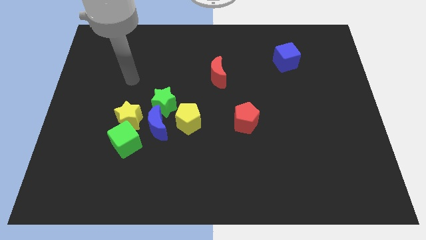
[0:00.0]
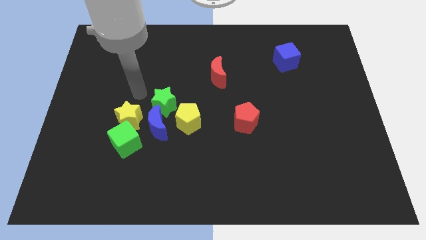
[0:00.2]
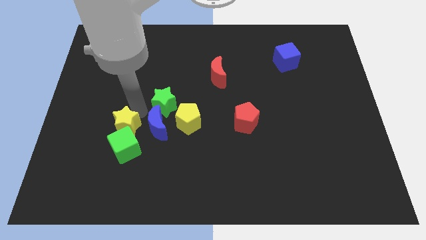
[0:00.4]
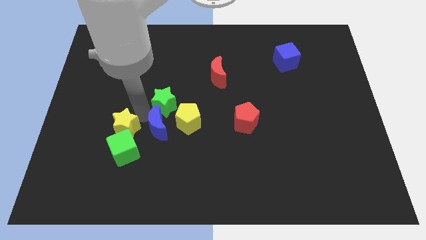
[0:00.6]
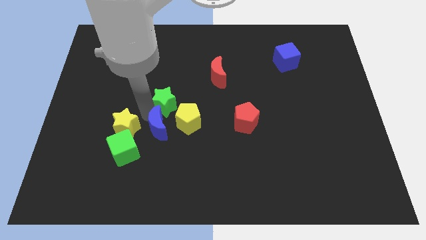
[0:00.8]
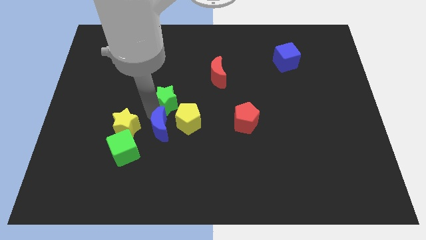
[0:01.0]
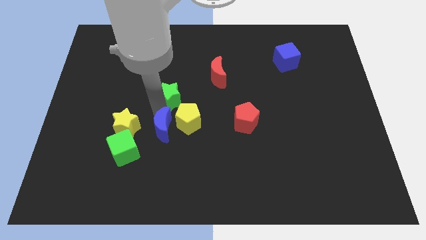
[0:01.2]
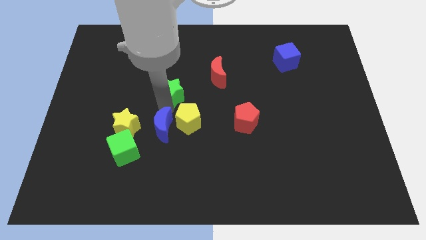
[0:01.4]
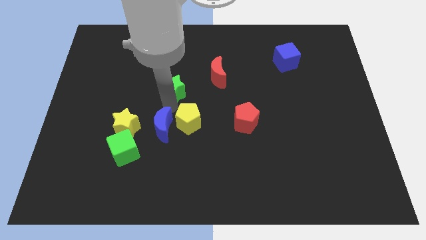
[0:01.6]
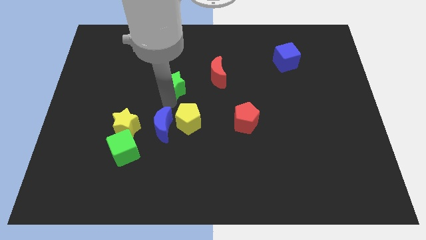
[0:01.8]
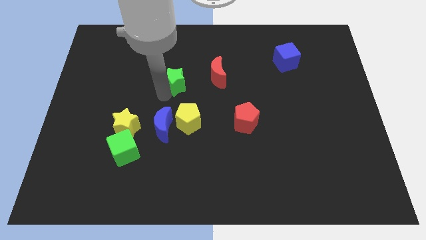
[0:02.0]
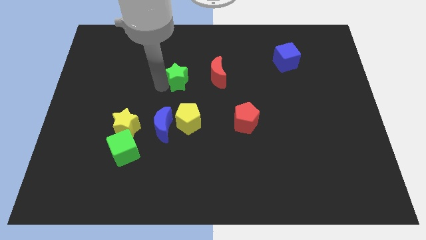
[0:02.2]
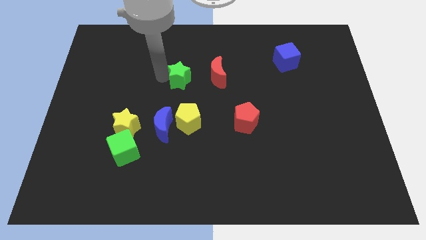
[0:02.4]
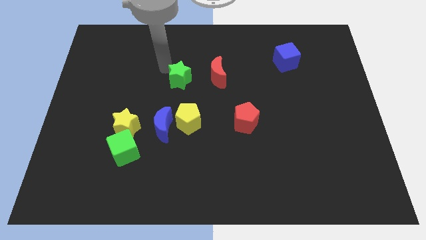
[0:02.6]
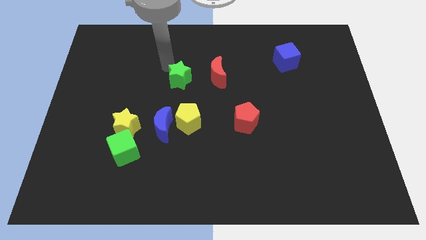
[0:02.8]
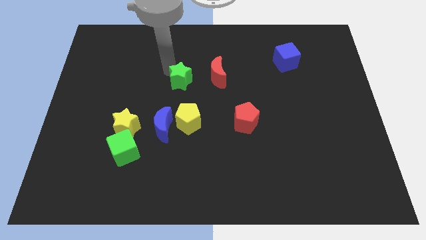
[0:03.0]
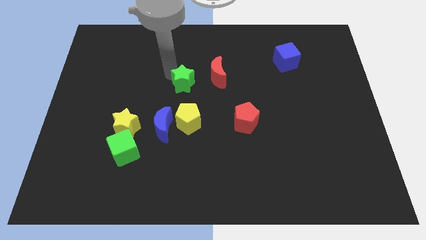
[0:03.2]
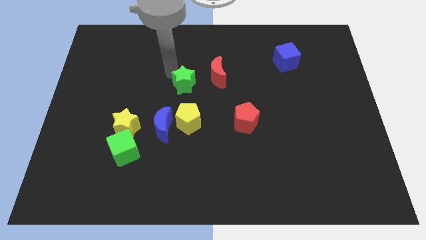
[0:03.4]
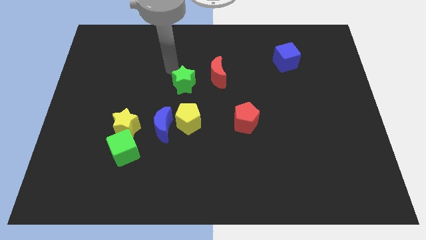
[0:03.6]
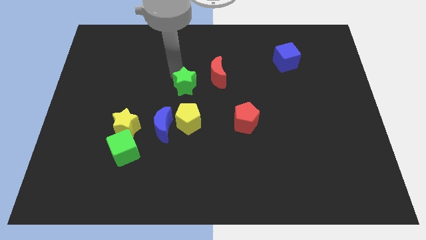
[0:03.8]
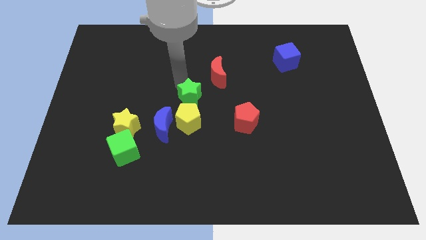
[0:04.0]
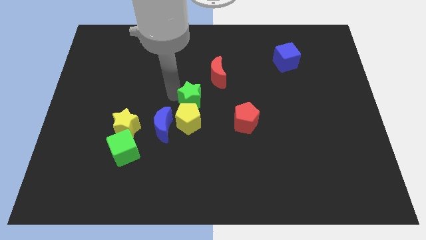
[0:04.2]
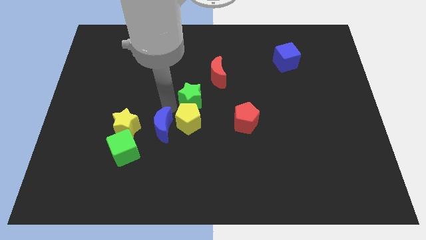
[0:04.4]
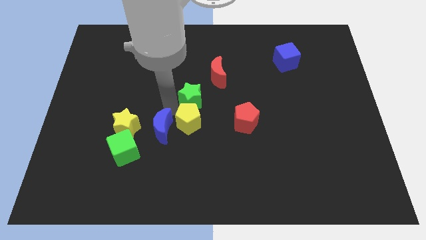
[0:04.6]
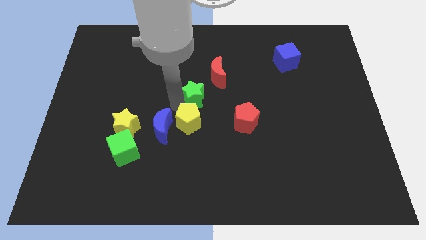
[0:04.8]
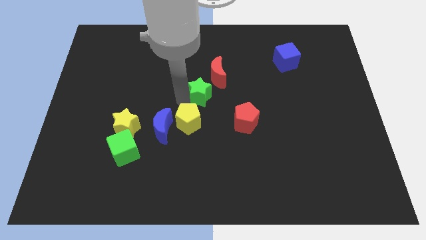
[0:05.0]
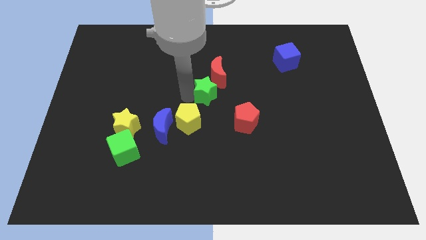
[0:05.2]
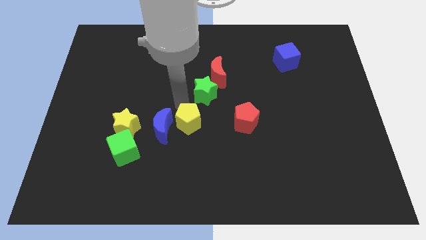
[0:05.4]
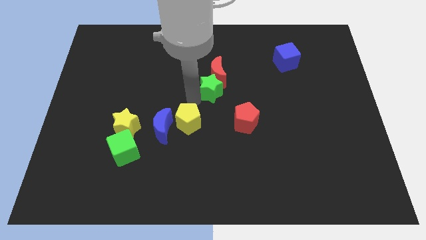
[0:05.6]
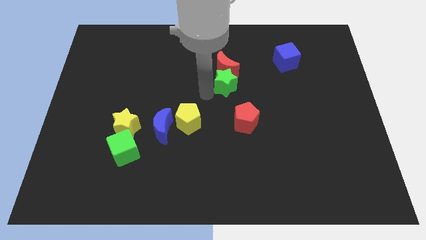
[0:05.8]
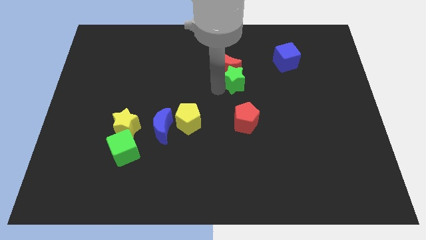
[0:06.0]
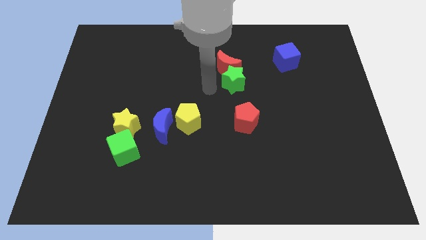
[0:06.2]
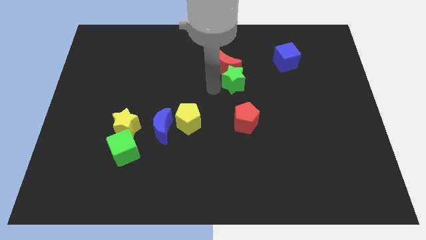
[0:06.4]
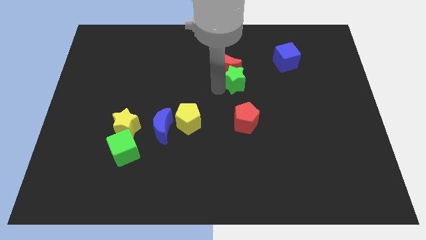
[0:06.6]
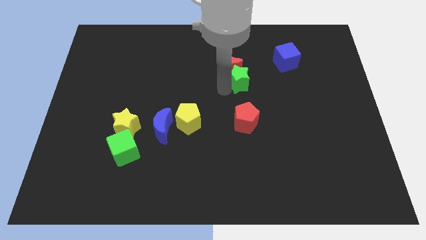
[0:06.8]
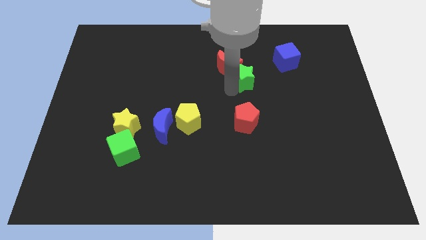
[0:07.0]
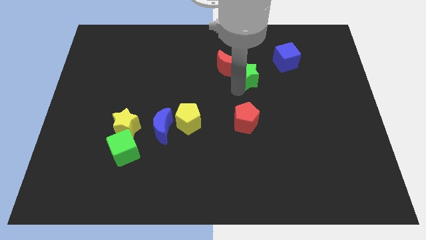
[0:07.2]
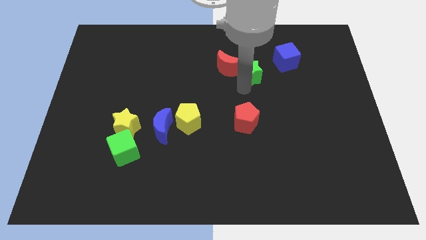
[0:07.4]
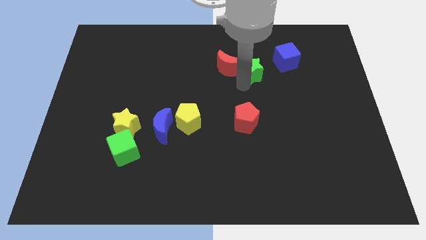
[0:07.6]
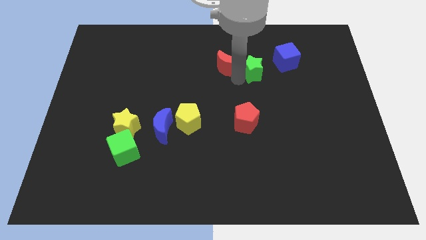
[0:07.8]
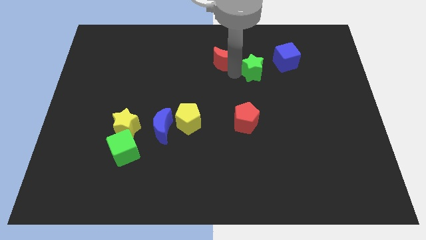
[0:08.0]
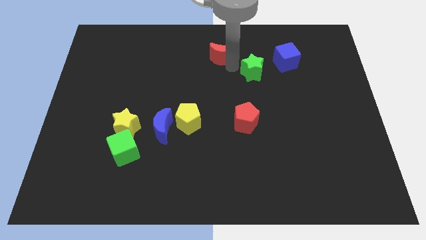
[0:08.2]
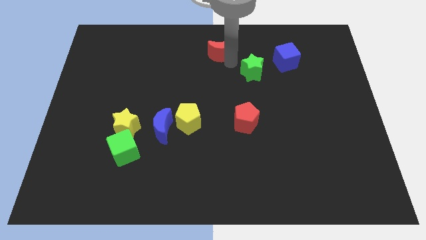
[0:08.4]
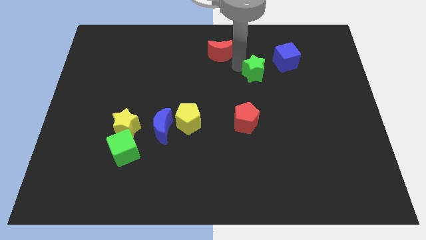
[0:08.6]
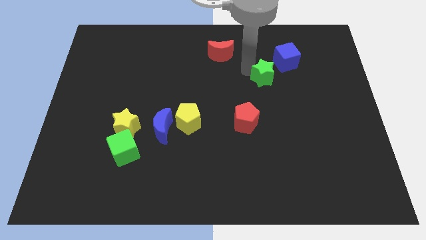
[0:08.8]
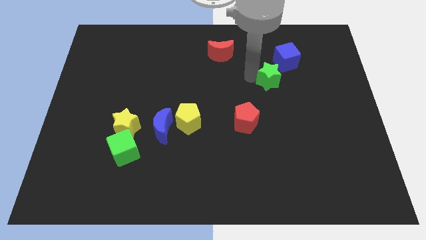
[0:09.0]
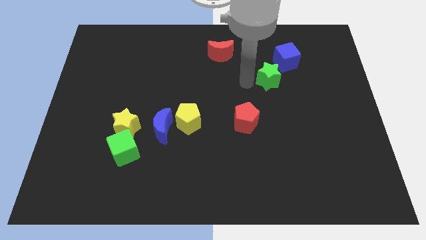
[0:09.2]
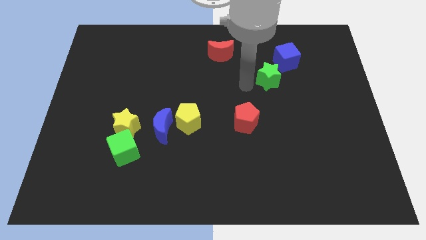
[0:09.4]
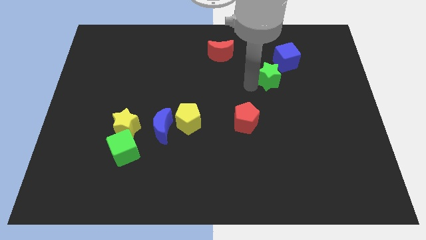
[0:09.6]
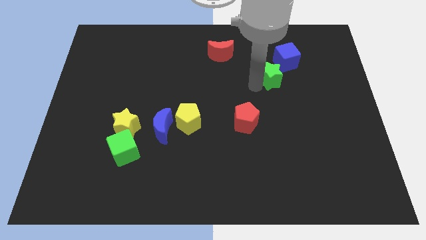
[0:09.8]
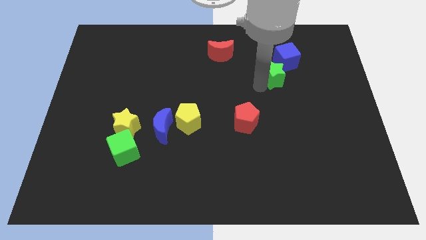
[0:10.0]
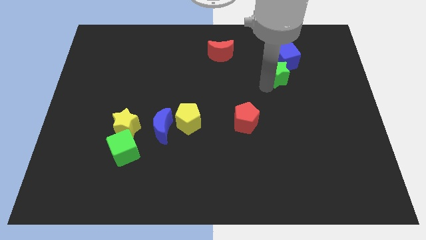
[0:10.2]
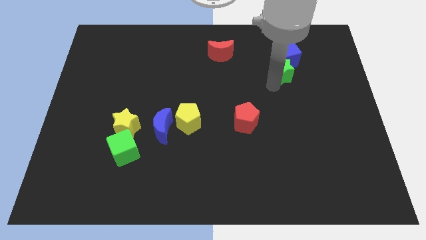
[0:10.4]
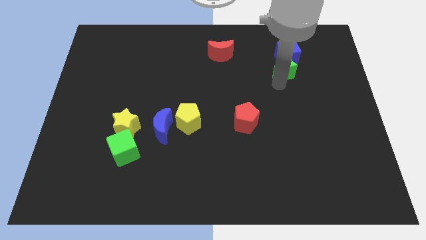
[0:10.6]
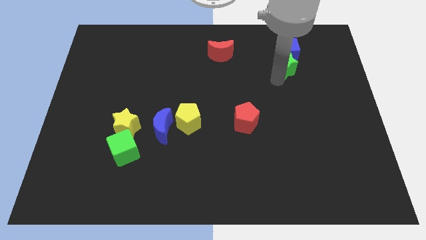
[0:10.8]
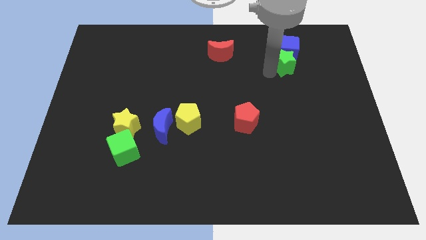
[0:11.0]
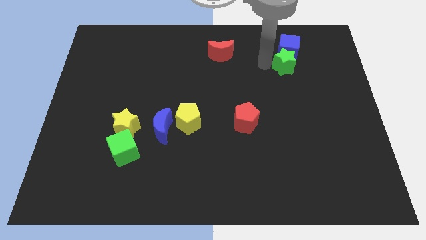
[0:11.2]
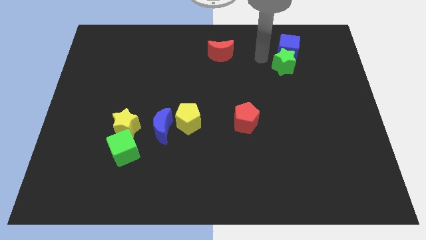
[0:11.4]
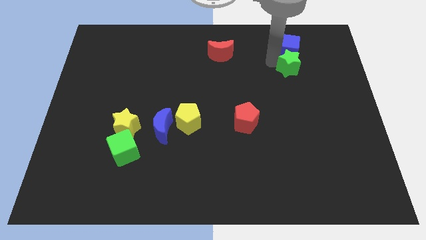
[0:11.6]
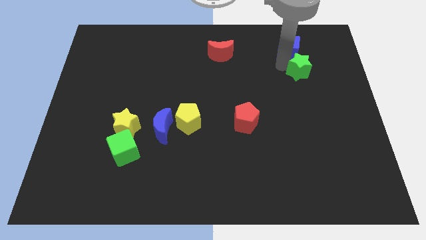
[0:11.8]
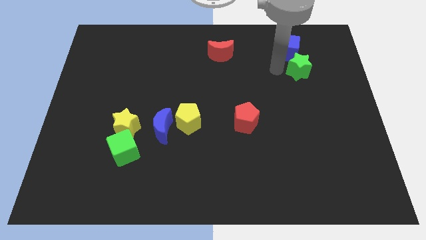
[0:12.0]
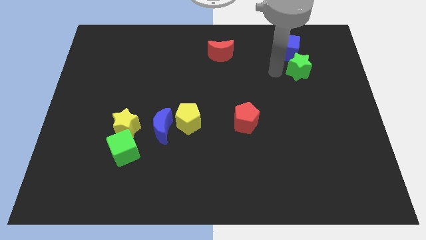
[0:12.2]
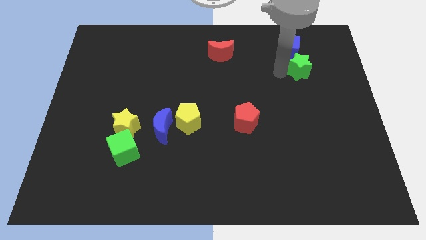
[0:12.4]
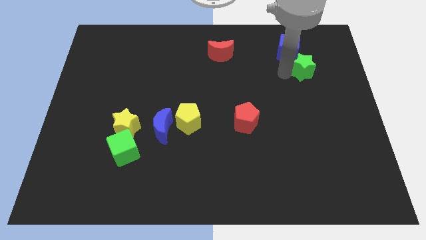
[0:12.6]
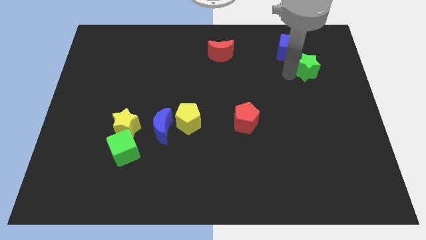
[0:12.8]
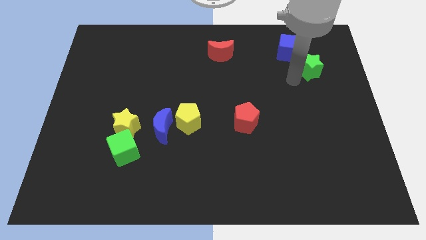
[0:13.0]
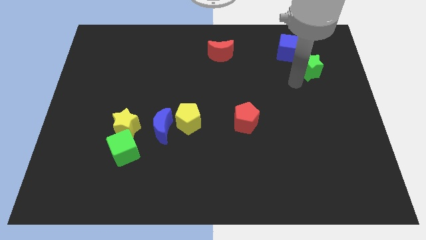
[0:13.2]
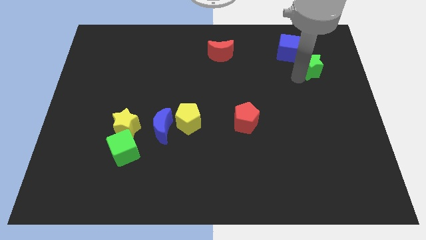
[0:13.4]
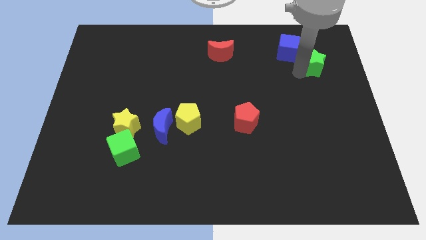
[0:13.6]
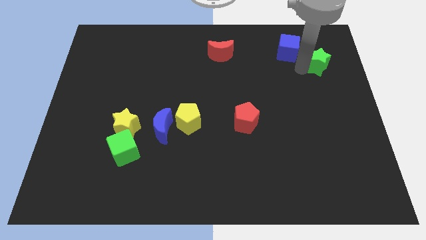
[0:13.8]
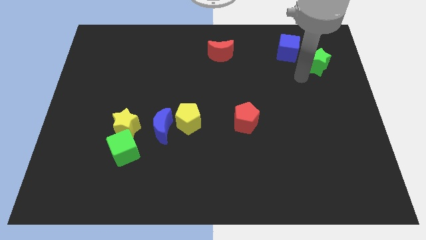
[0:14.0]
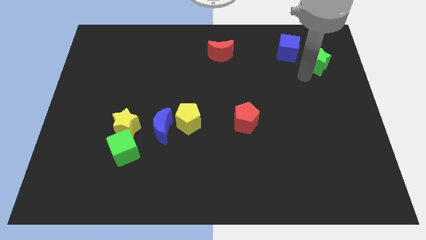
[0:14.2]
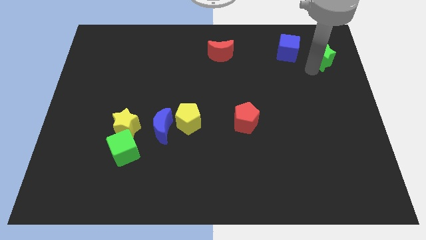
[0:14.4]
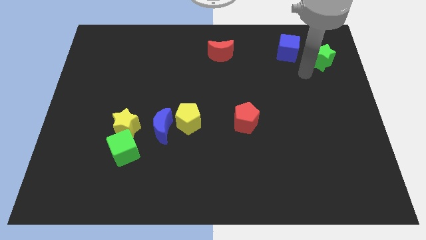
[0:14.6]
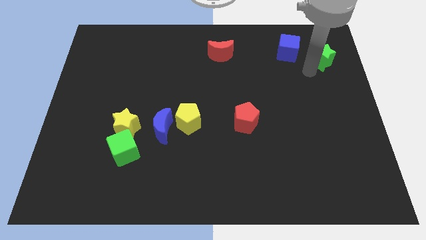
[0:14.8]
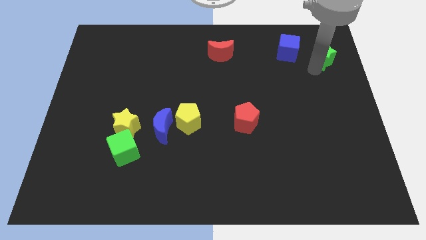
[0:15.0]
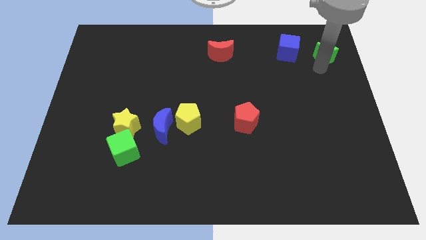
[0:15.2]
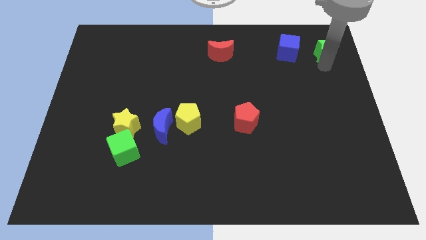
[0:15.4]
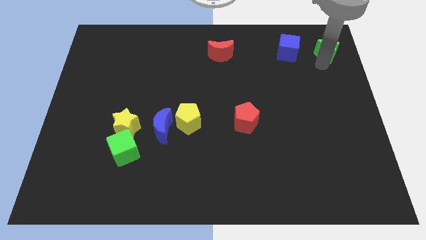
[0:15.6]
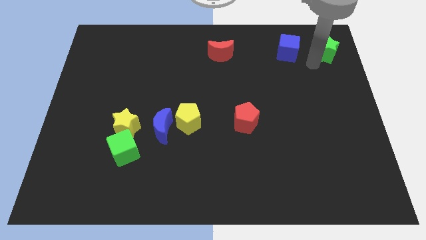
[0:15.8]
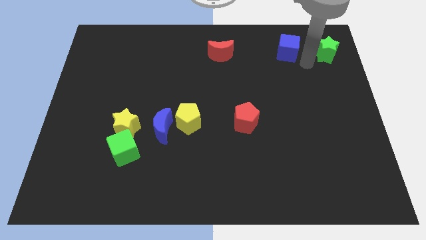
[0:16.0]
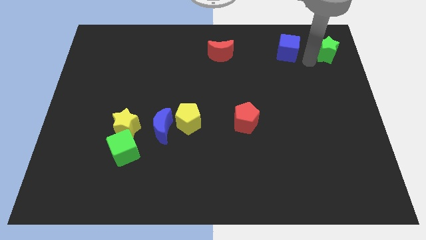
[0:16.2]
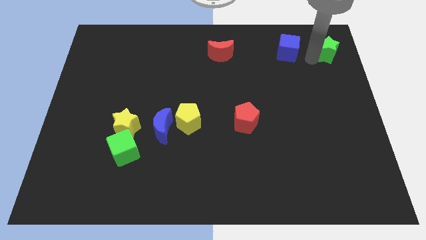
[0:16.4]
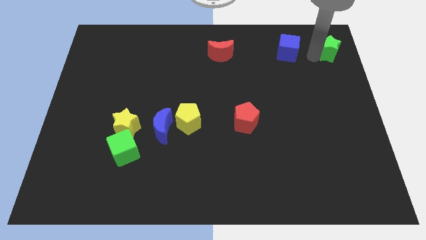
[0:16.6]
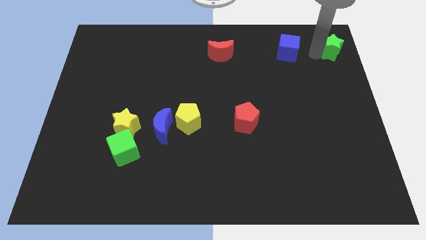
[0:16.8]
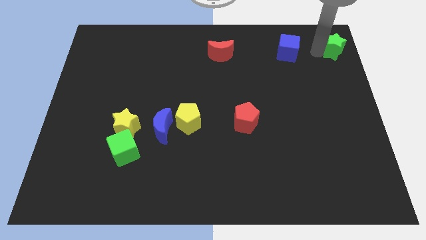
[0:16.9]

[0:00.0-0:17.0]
put the green star to the top right
